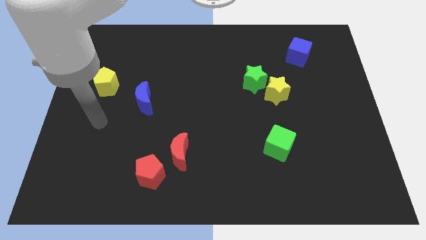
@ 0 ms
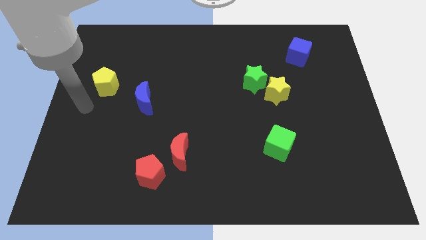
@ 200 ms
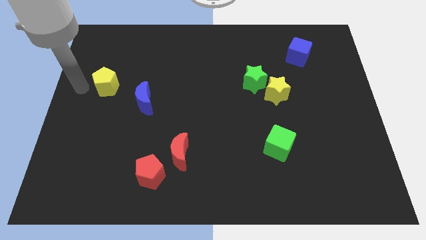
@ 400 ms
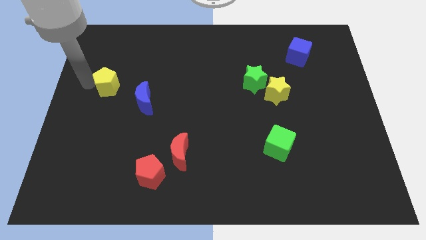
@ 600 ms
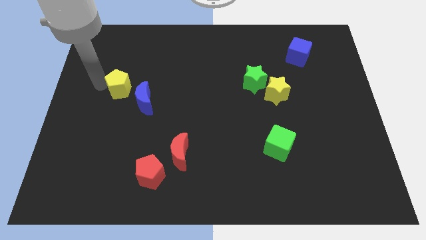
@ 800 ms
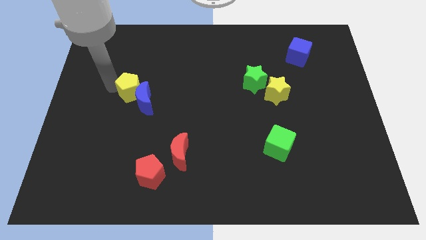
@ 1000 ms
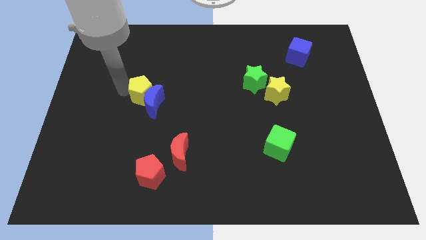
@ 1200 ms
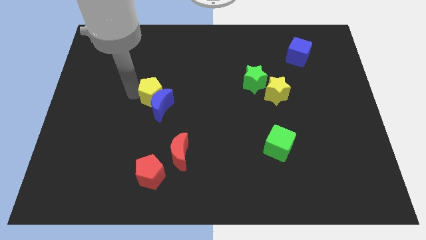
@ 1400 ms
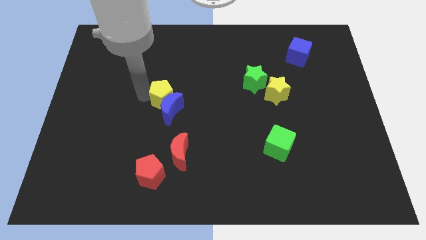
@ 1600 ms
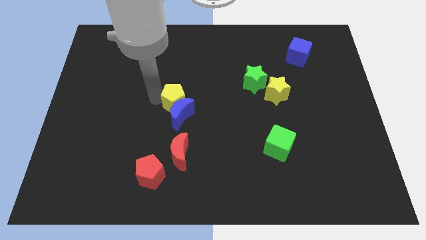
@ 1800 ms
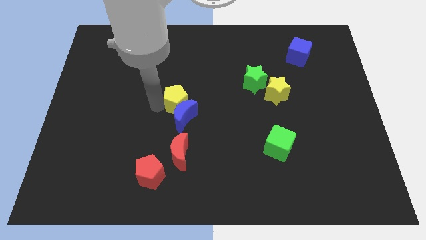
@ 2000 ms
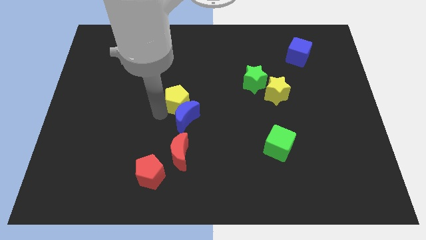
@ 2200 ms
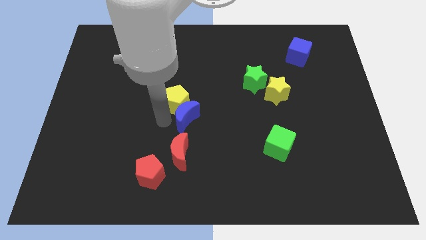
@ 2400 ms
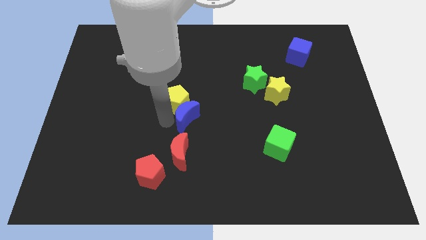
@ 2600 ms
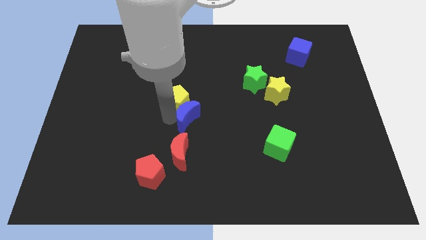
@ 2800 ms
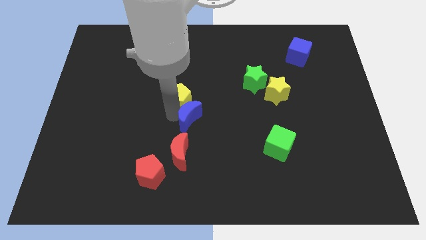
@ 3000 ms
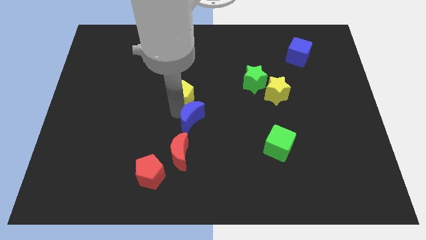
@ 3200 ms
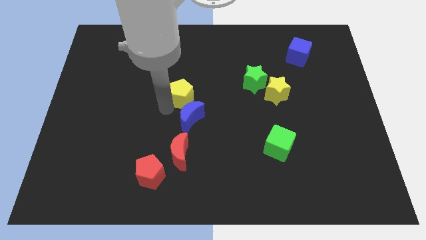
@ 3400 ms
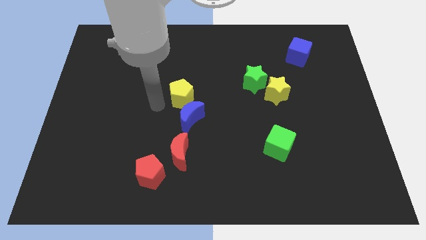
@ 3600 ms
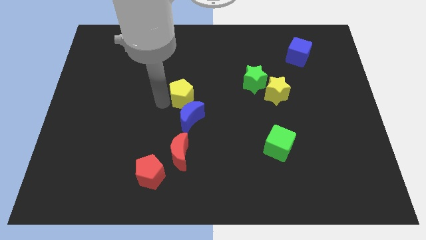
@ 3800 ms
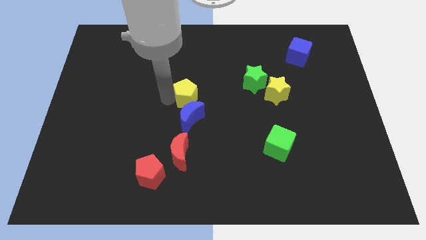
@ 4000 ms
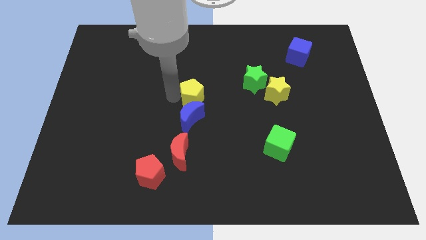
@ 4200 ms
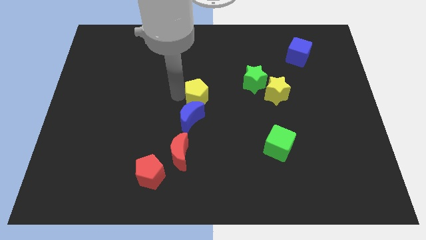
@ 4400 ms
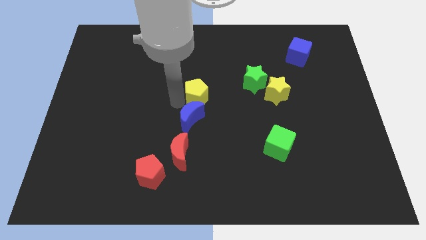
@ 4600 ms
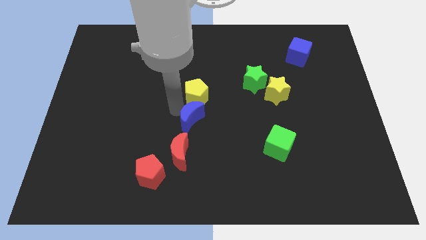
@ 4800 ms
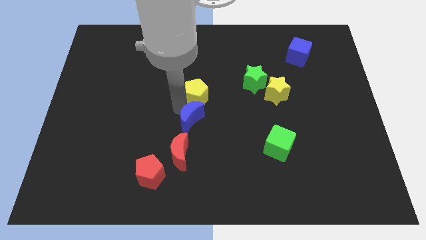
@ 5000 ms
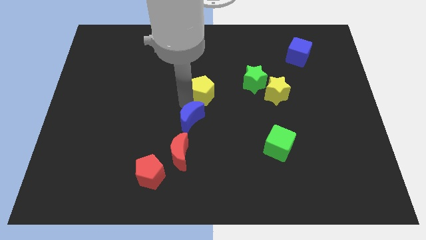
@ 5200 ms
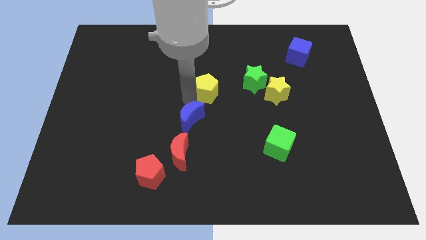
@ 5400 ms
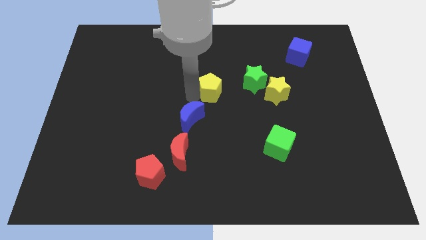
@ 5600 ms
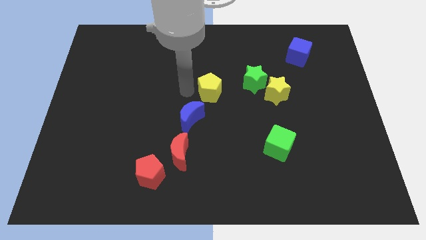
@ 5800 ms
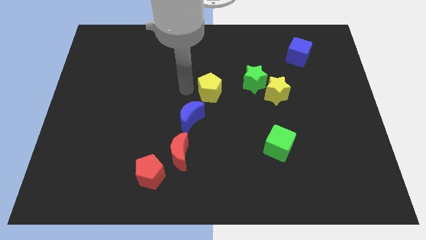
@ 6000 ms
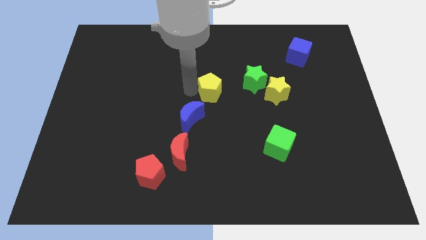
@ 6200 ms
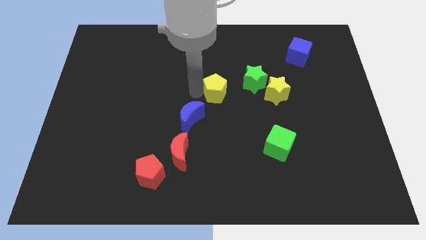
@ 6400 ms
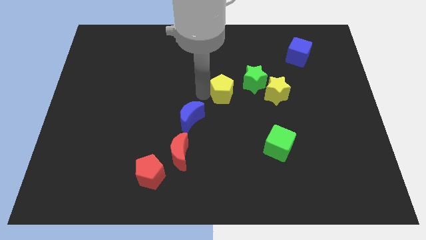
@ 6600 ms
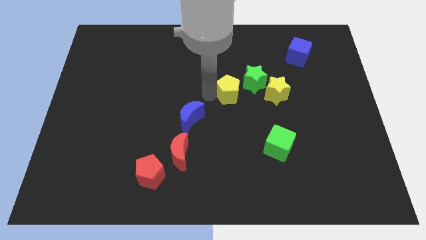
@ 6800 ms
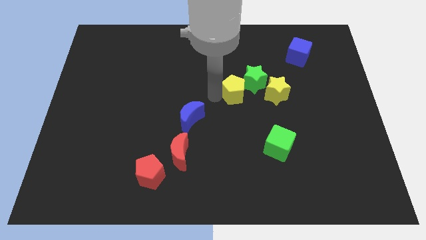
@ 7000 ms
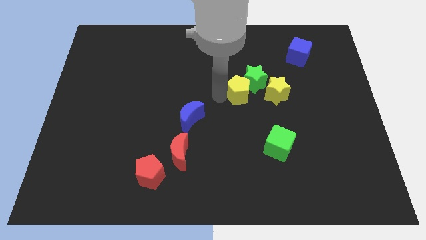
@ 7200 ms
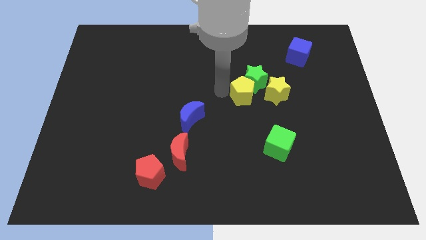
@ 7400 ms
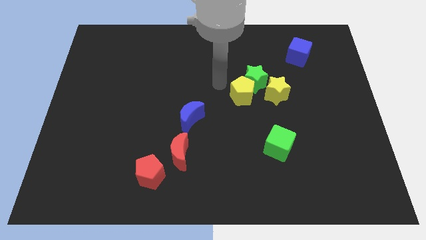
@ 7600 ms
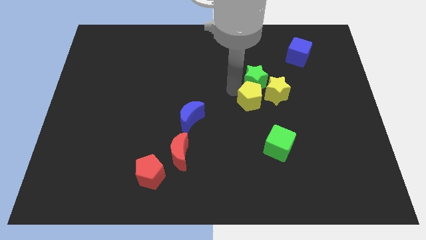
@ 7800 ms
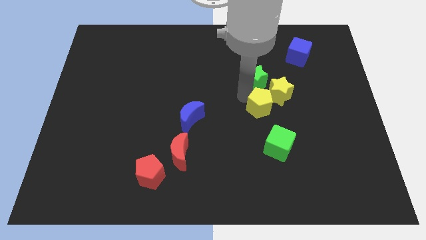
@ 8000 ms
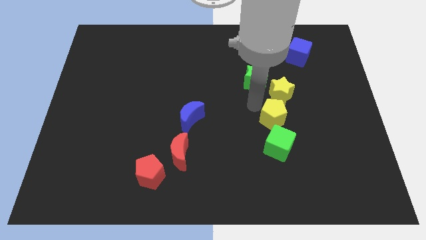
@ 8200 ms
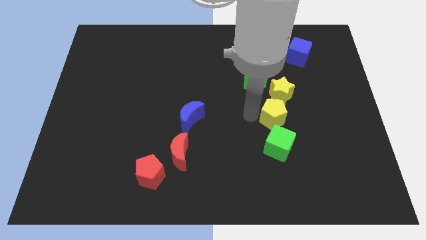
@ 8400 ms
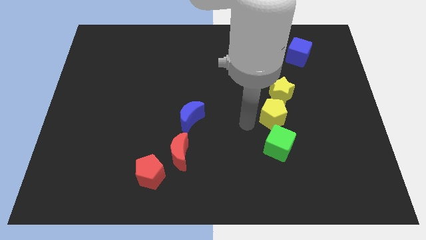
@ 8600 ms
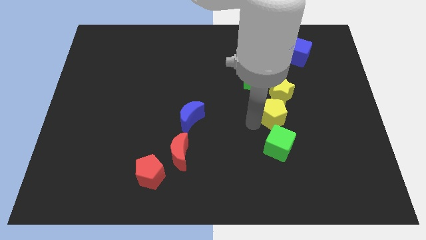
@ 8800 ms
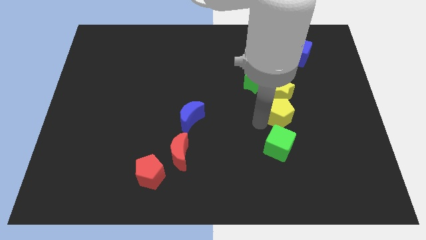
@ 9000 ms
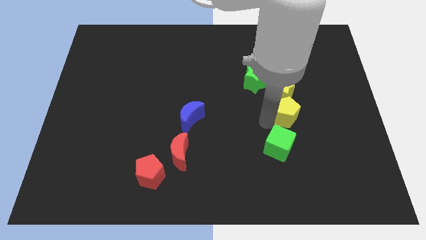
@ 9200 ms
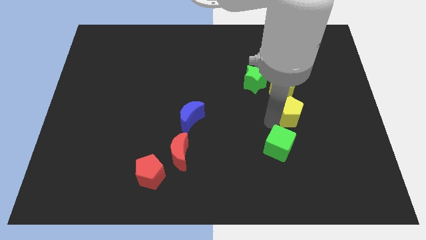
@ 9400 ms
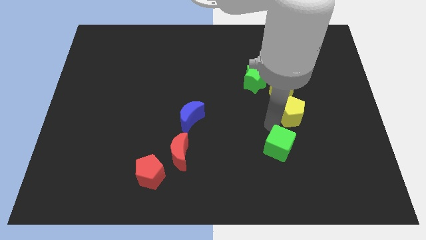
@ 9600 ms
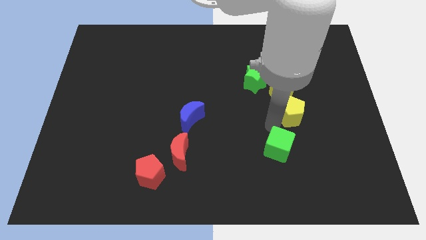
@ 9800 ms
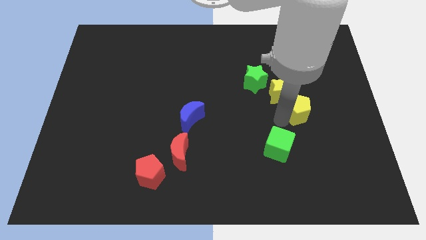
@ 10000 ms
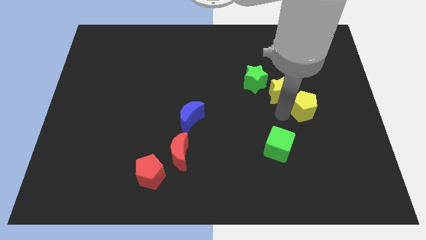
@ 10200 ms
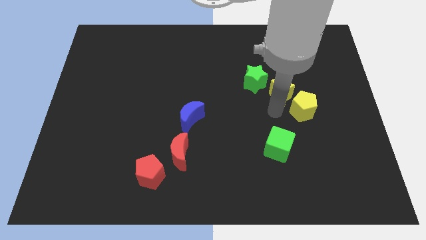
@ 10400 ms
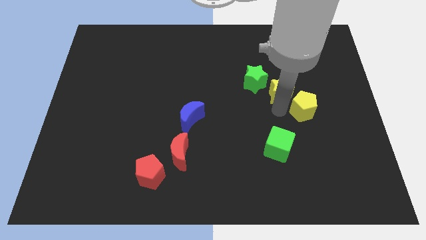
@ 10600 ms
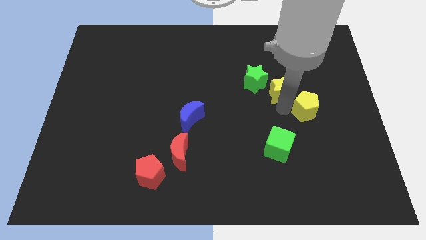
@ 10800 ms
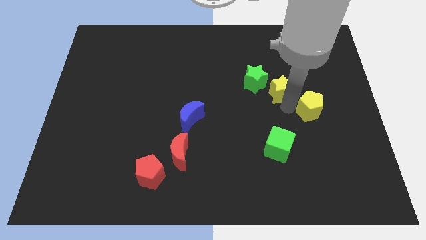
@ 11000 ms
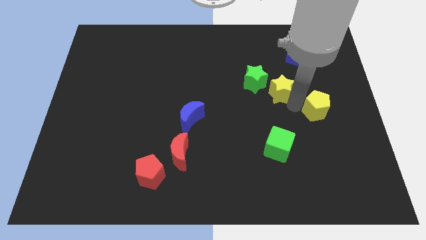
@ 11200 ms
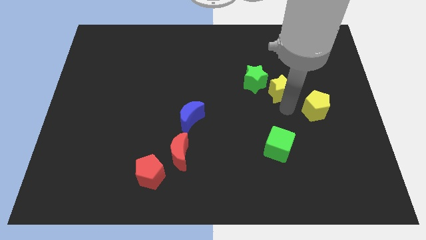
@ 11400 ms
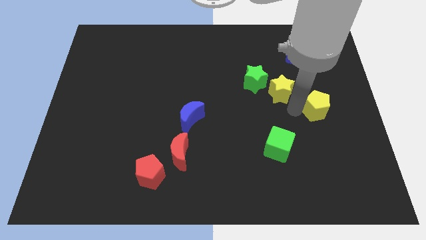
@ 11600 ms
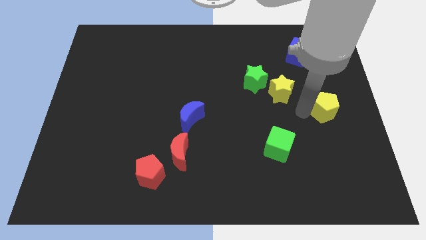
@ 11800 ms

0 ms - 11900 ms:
put the yellow pentagon to the center right

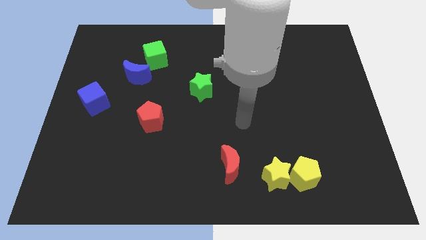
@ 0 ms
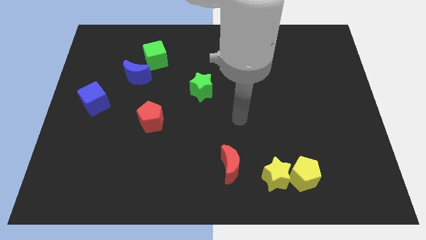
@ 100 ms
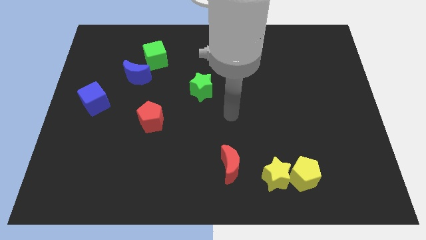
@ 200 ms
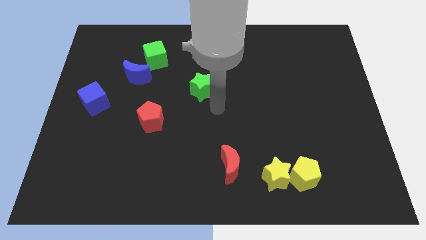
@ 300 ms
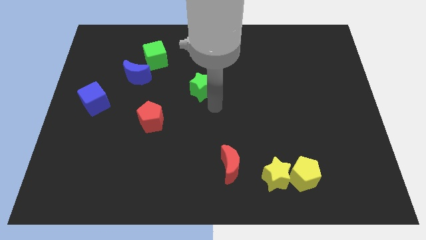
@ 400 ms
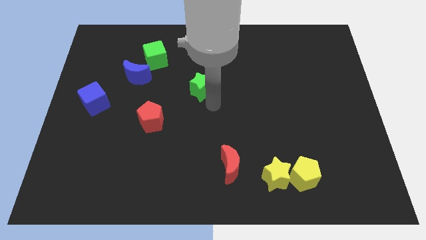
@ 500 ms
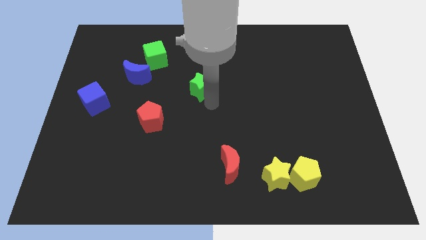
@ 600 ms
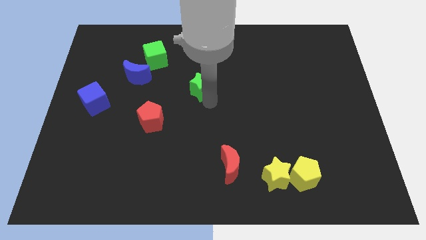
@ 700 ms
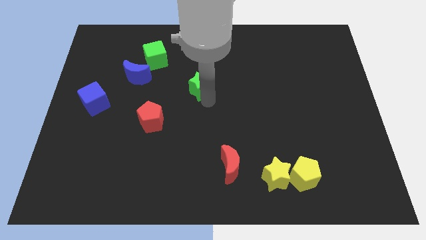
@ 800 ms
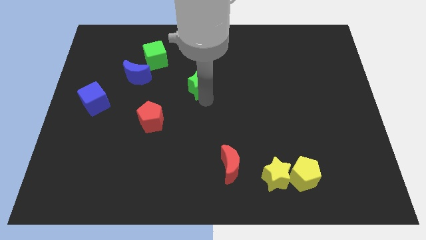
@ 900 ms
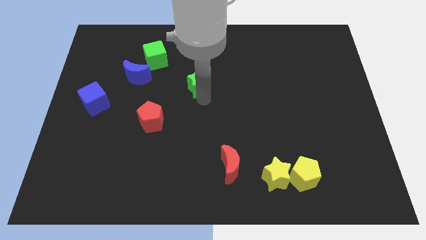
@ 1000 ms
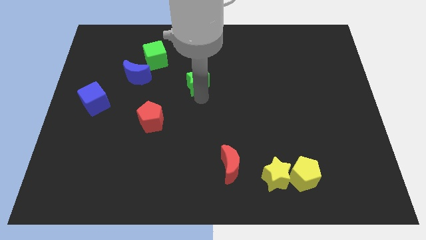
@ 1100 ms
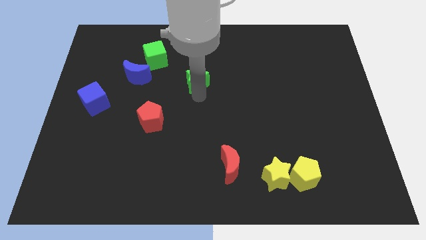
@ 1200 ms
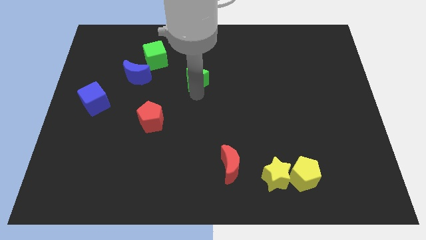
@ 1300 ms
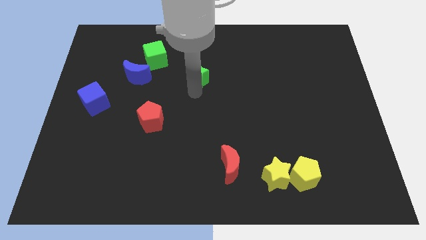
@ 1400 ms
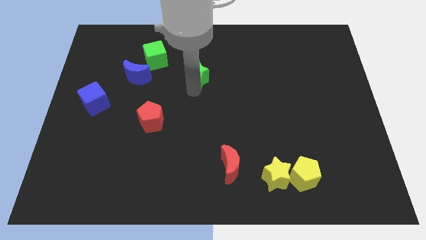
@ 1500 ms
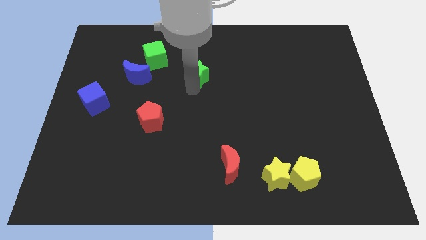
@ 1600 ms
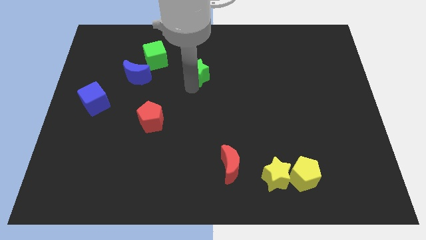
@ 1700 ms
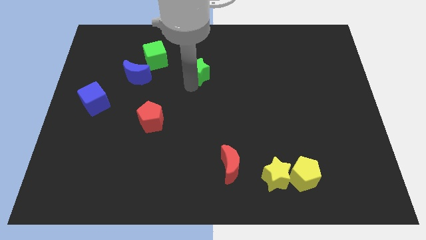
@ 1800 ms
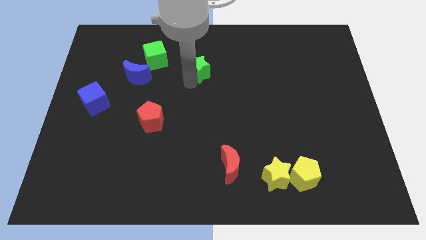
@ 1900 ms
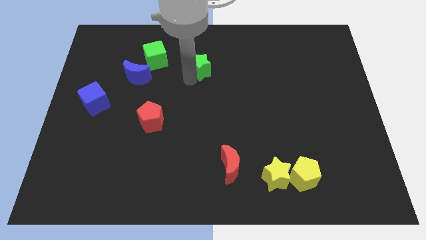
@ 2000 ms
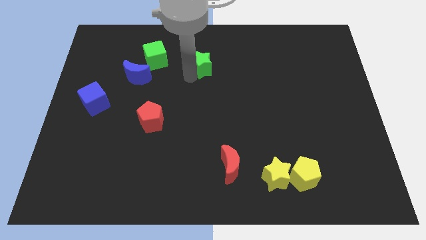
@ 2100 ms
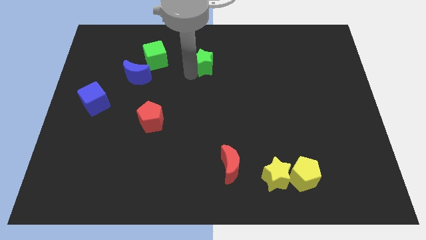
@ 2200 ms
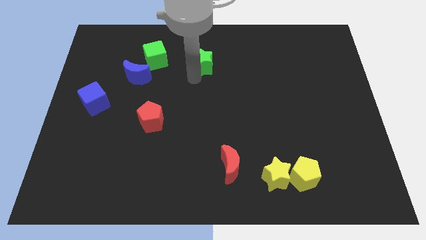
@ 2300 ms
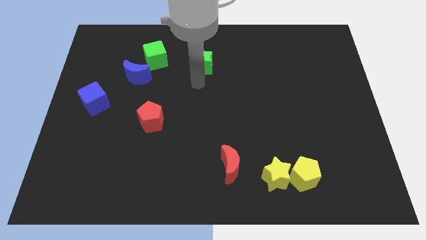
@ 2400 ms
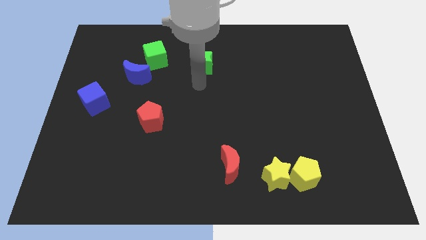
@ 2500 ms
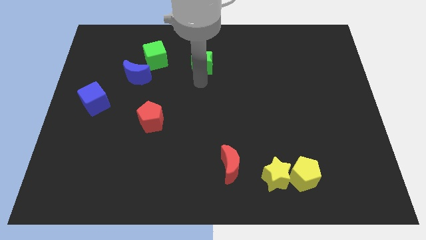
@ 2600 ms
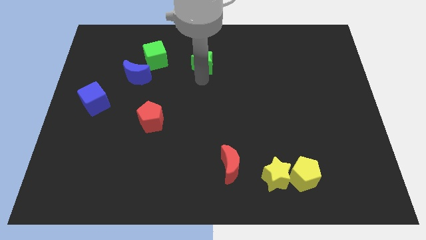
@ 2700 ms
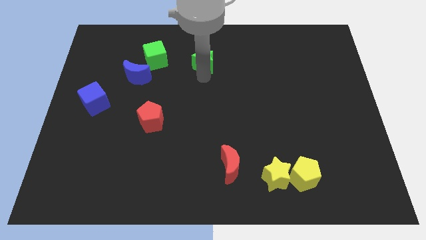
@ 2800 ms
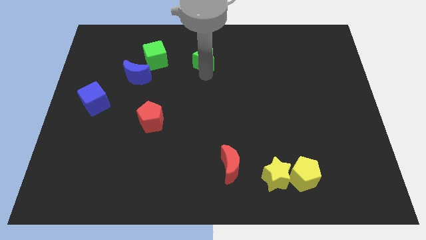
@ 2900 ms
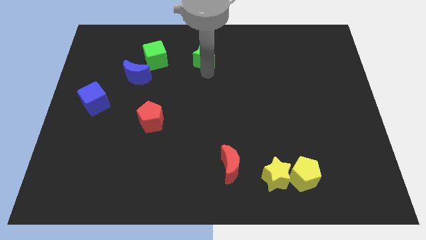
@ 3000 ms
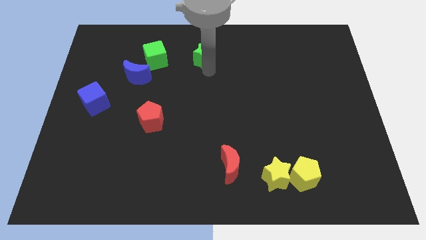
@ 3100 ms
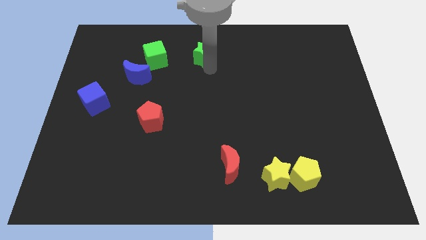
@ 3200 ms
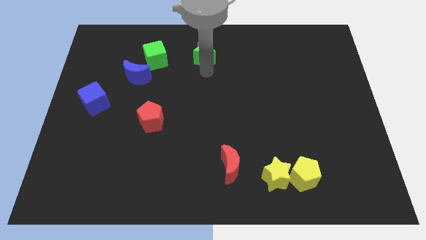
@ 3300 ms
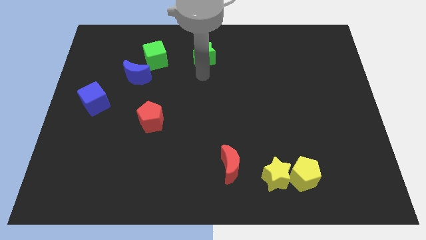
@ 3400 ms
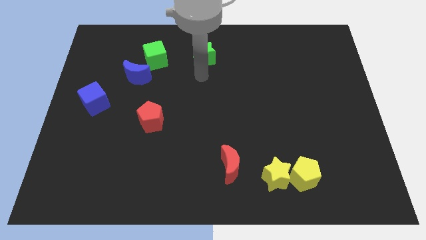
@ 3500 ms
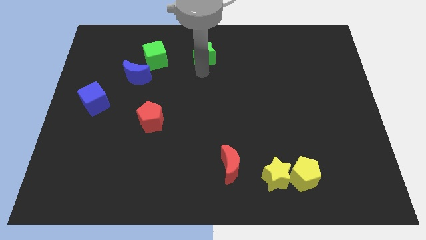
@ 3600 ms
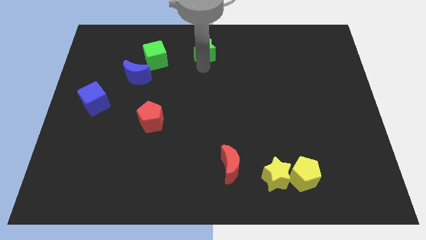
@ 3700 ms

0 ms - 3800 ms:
push the green star to the top
